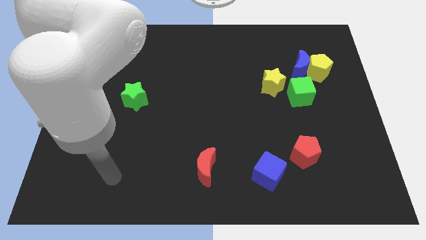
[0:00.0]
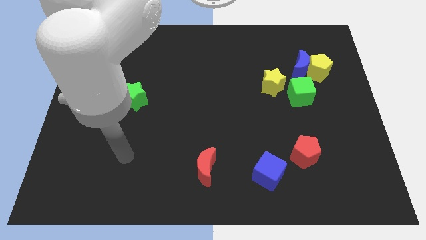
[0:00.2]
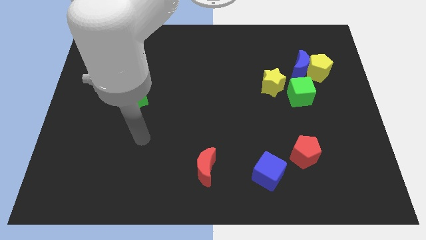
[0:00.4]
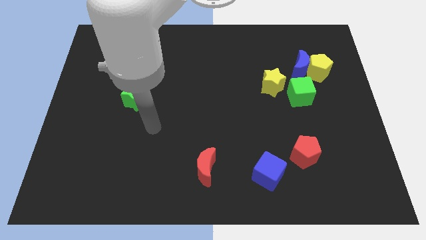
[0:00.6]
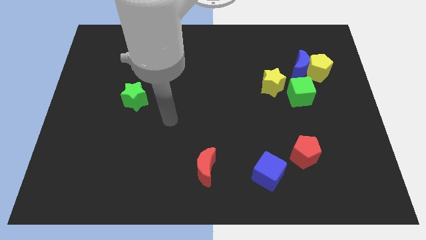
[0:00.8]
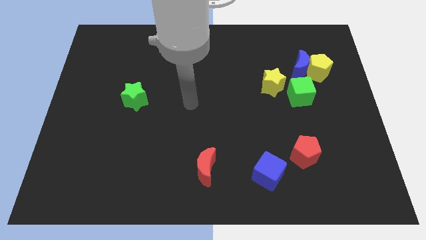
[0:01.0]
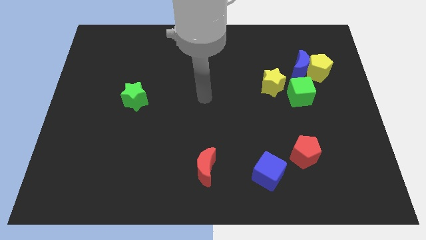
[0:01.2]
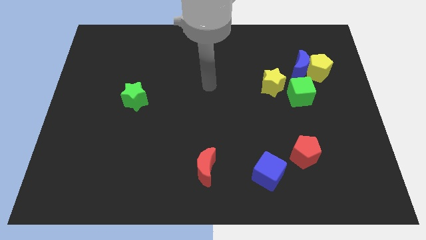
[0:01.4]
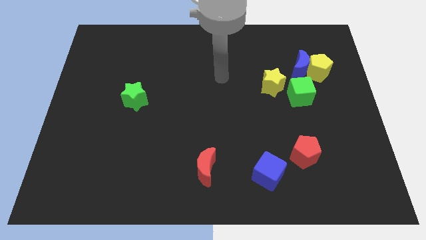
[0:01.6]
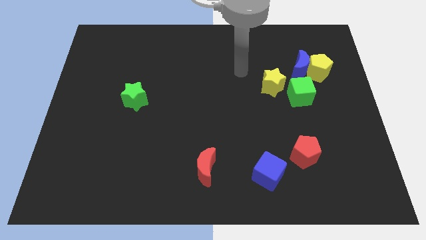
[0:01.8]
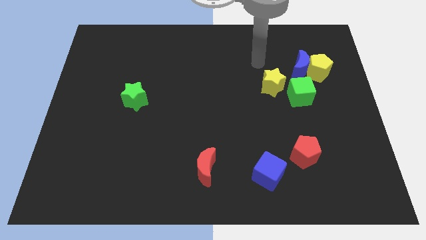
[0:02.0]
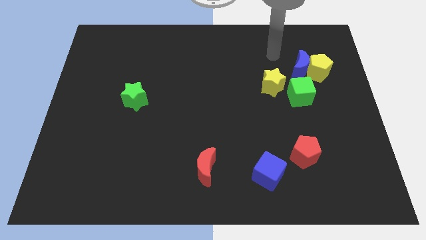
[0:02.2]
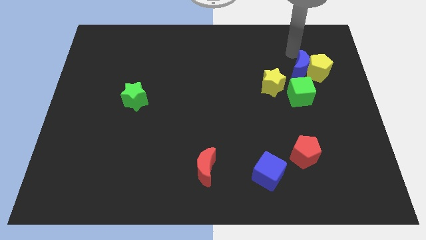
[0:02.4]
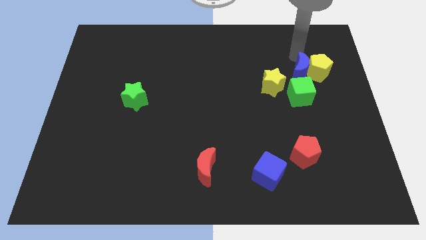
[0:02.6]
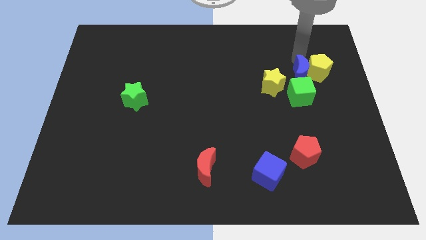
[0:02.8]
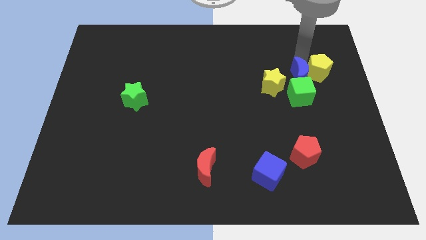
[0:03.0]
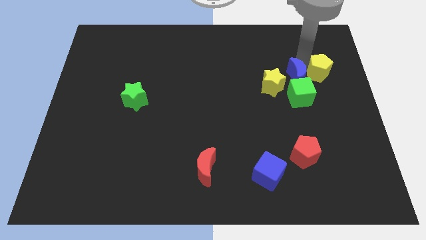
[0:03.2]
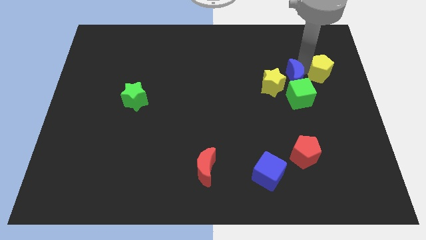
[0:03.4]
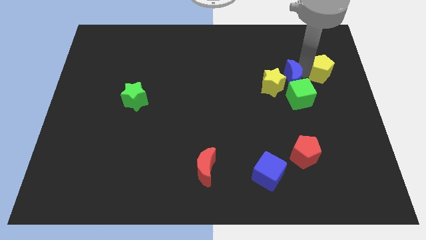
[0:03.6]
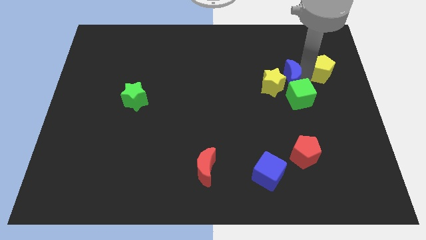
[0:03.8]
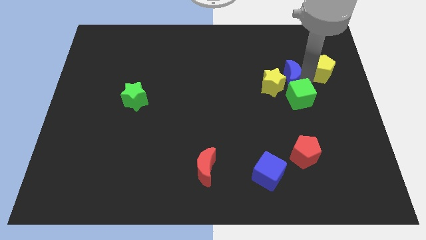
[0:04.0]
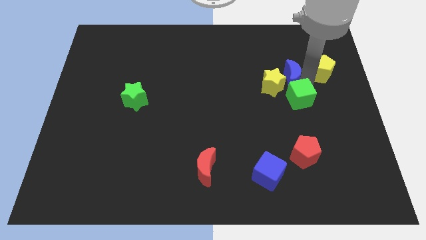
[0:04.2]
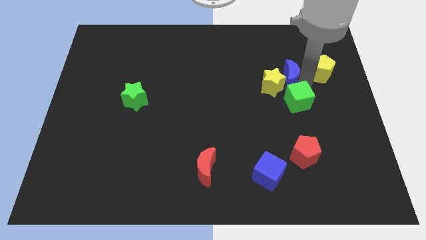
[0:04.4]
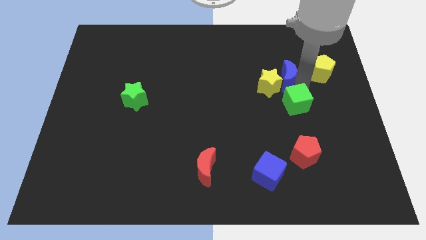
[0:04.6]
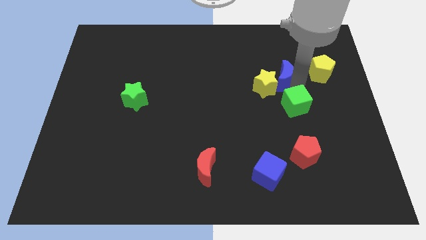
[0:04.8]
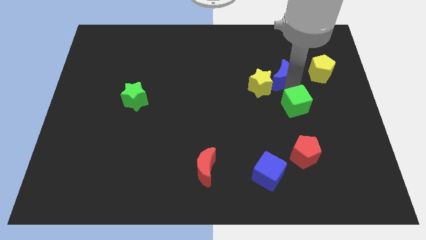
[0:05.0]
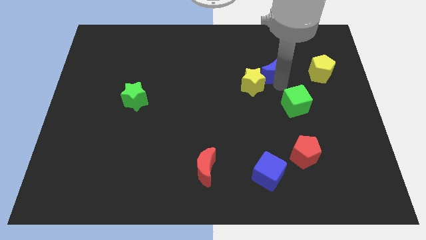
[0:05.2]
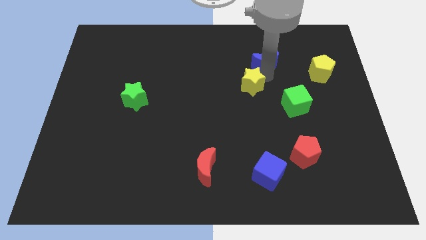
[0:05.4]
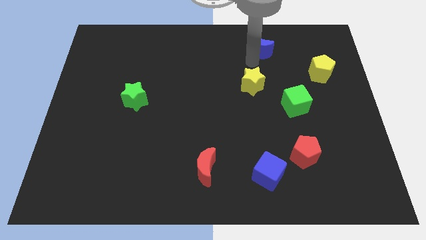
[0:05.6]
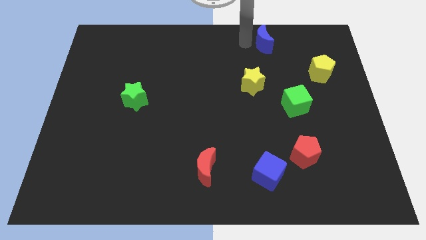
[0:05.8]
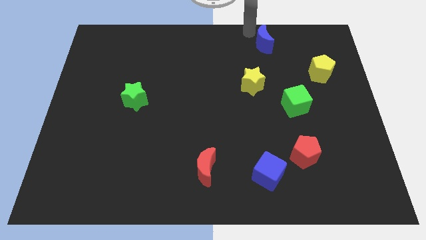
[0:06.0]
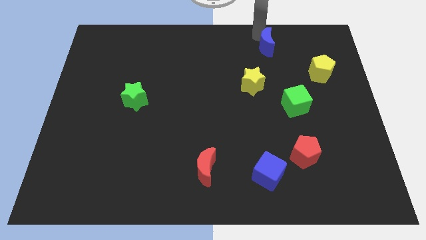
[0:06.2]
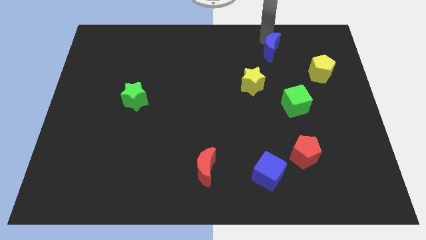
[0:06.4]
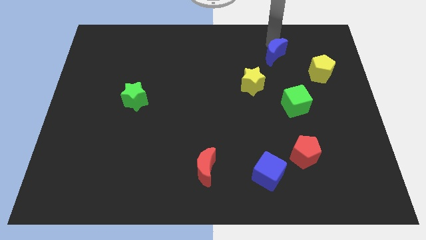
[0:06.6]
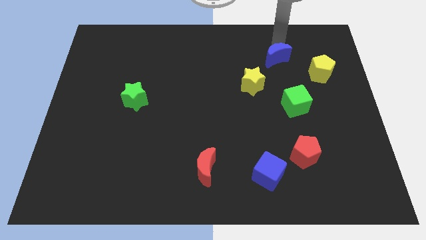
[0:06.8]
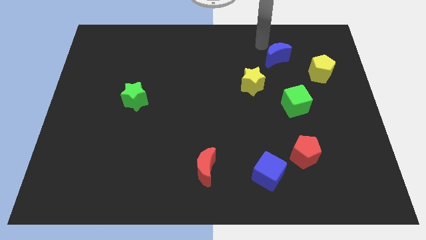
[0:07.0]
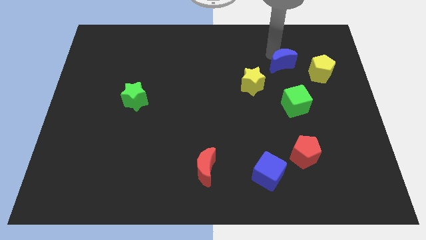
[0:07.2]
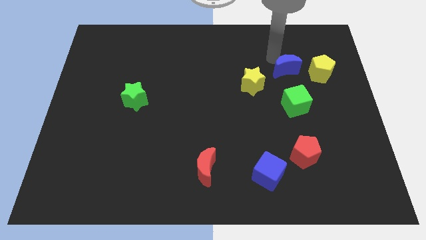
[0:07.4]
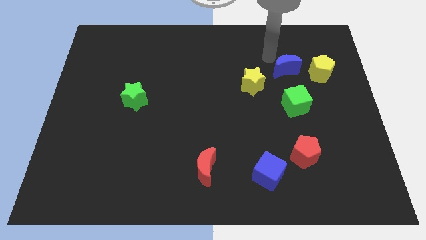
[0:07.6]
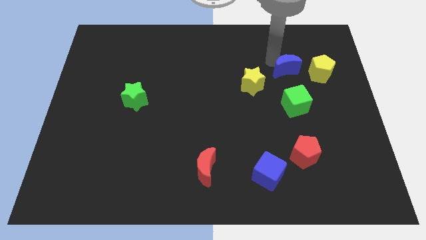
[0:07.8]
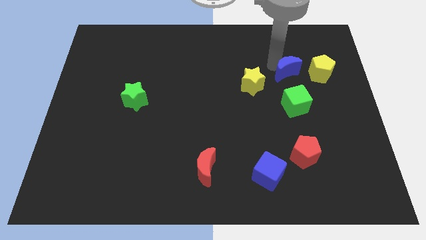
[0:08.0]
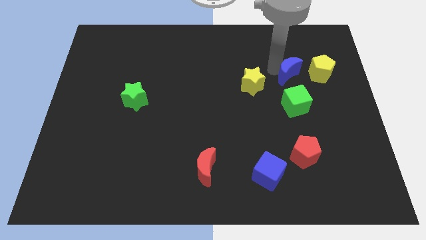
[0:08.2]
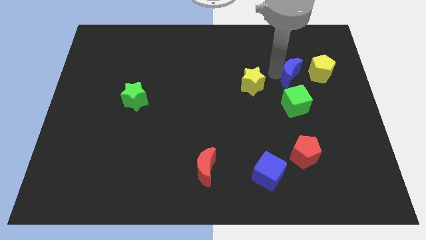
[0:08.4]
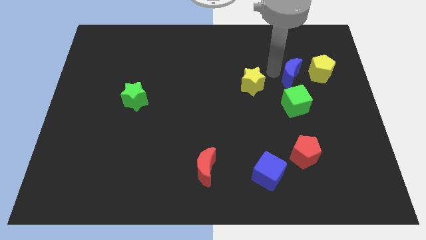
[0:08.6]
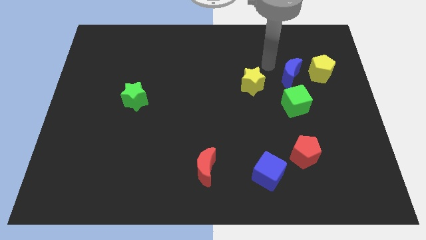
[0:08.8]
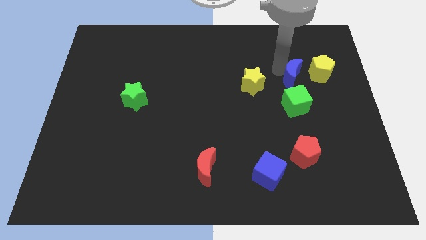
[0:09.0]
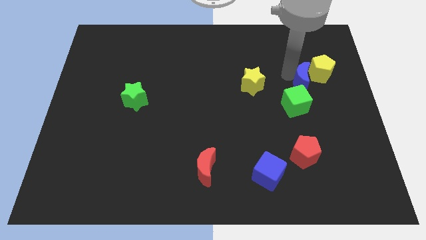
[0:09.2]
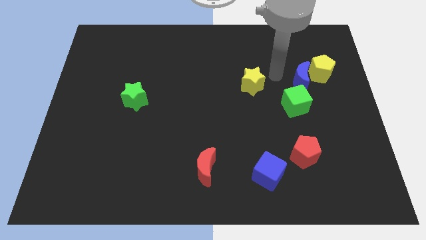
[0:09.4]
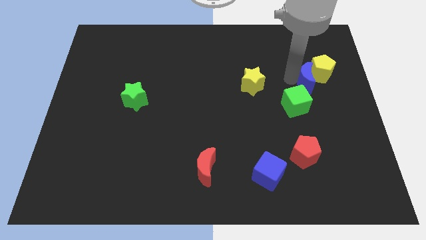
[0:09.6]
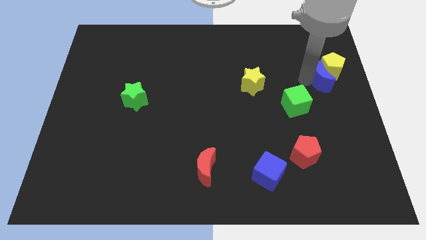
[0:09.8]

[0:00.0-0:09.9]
push the blue moon to the center right

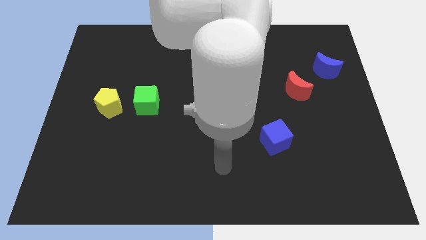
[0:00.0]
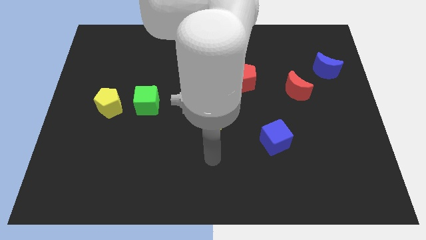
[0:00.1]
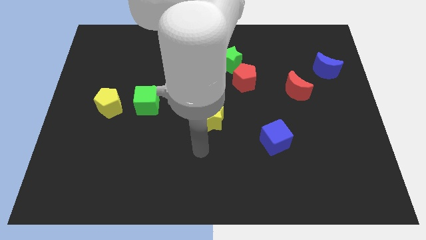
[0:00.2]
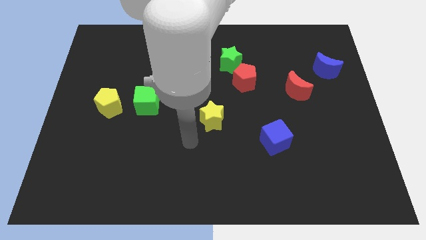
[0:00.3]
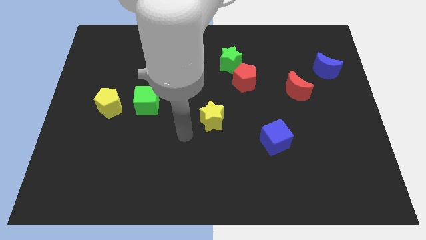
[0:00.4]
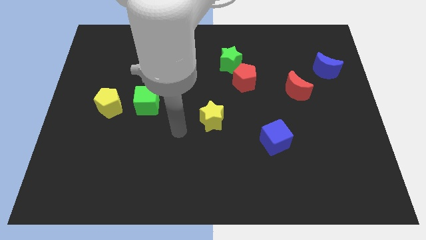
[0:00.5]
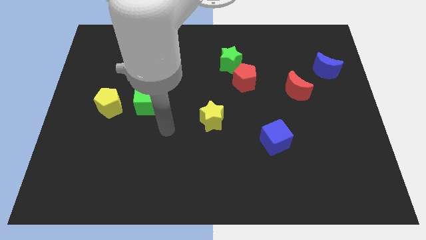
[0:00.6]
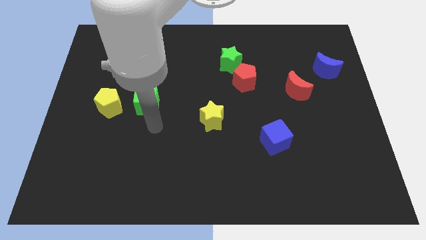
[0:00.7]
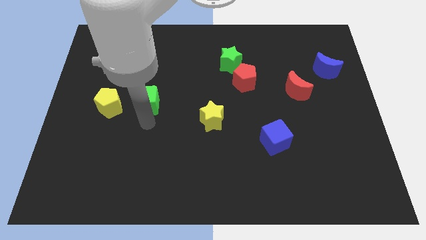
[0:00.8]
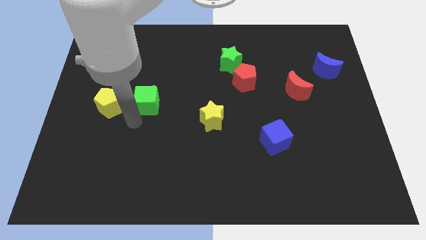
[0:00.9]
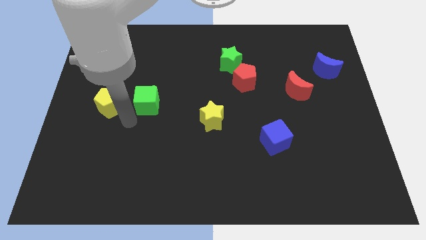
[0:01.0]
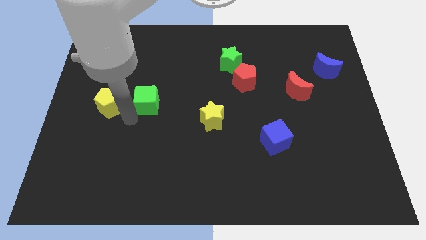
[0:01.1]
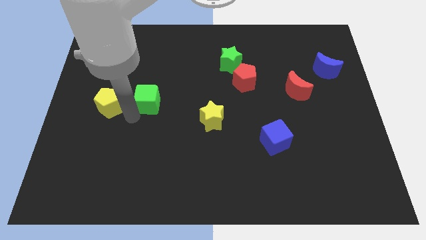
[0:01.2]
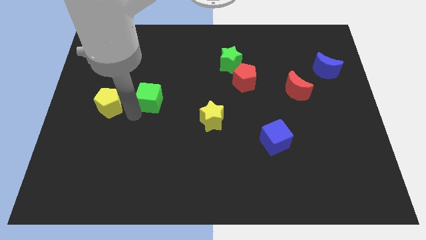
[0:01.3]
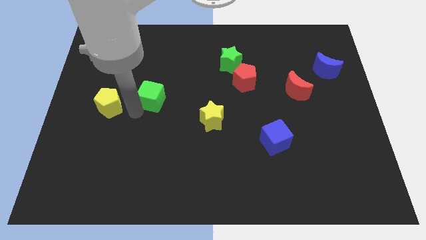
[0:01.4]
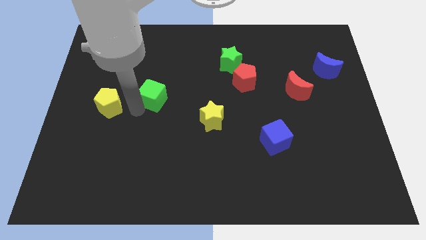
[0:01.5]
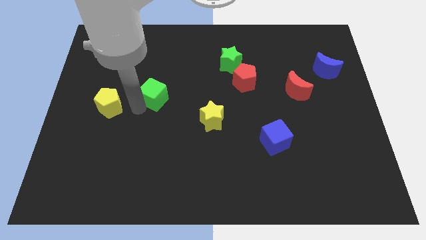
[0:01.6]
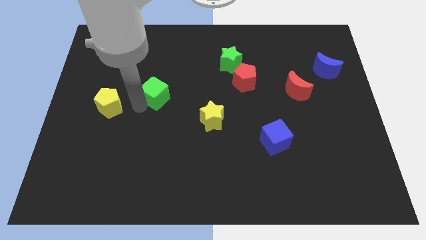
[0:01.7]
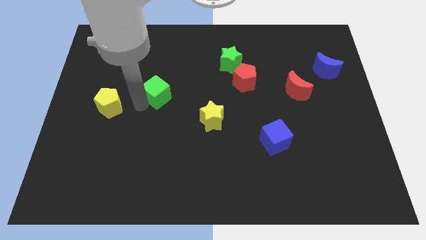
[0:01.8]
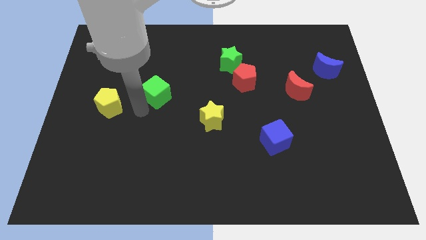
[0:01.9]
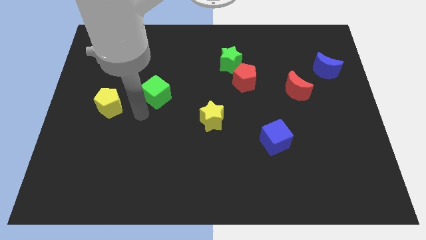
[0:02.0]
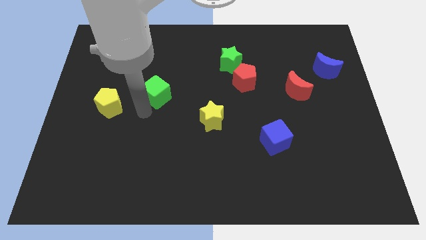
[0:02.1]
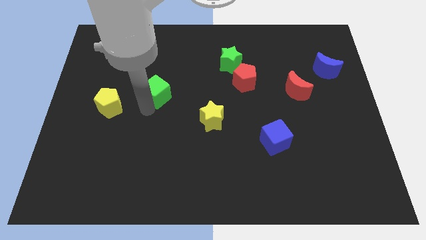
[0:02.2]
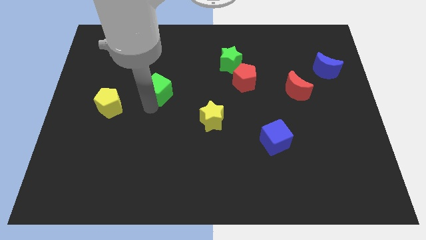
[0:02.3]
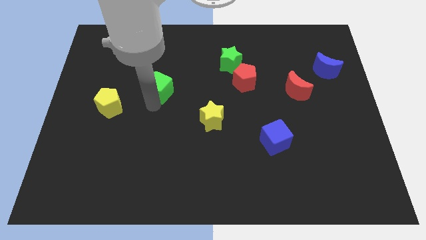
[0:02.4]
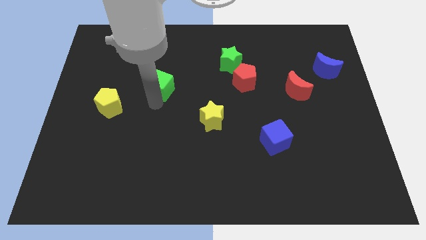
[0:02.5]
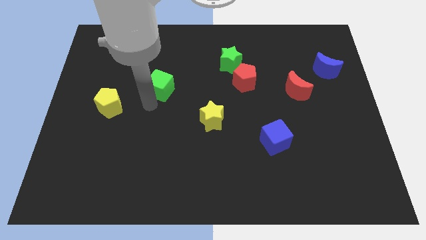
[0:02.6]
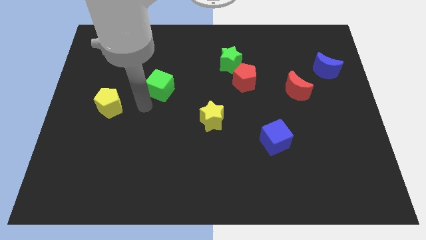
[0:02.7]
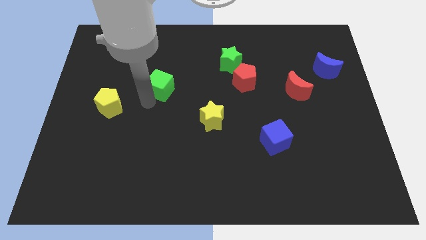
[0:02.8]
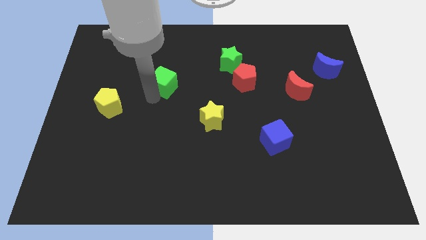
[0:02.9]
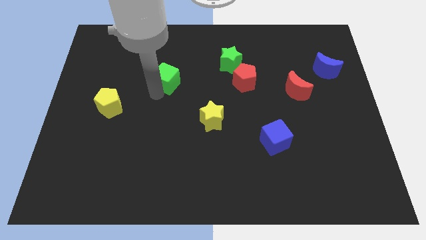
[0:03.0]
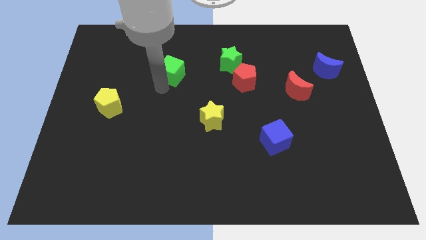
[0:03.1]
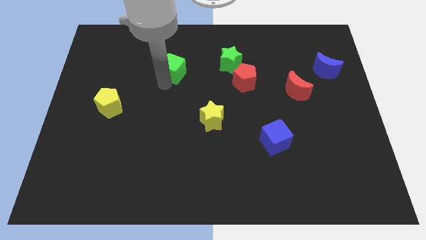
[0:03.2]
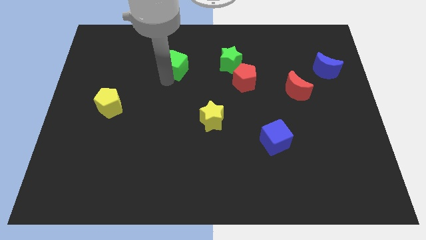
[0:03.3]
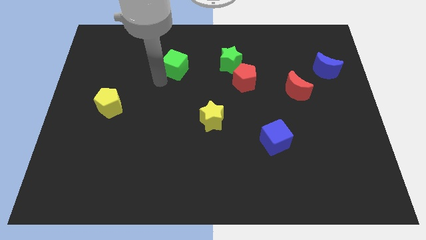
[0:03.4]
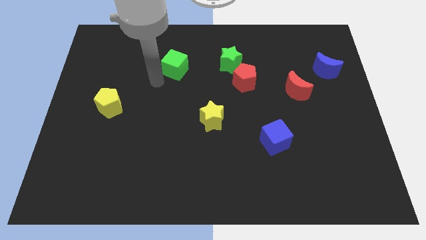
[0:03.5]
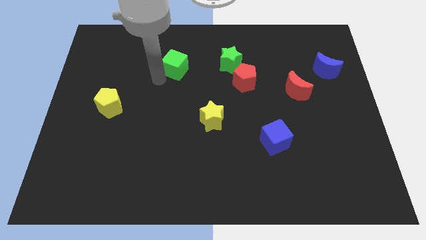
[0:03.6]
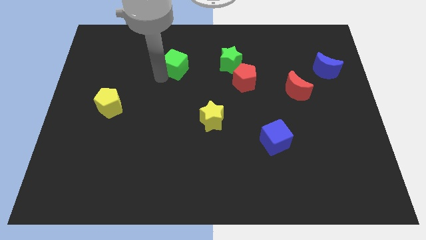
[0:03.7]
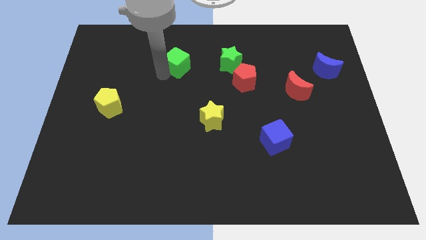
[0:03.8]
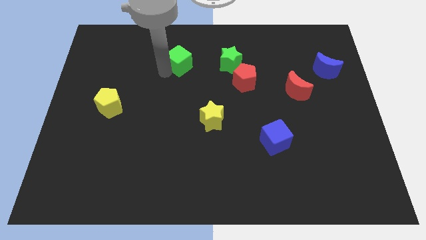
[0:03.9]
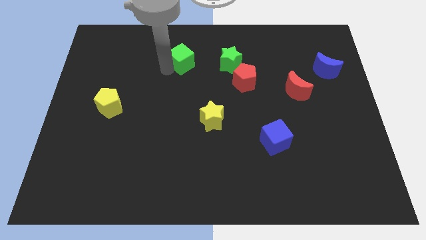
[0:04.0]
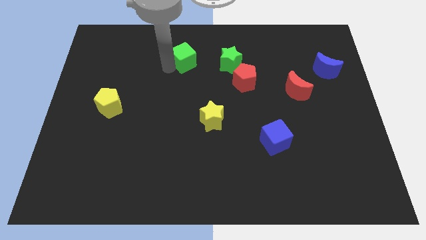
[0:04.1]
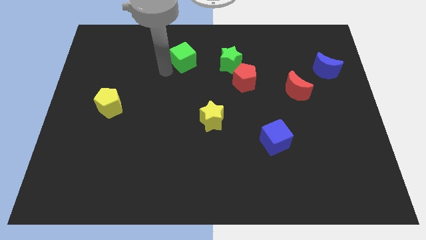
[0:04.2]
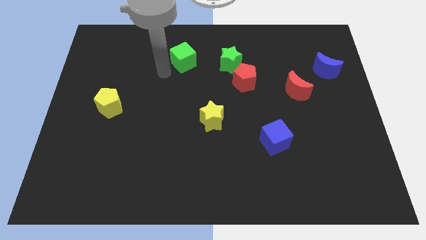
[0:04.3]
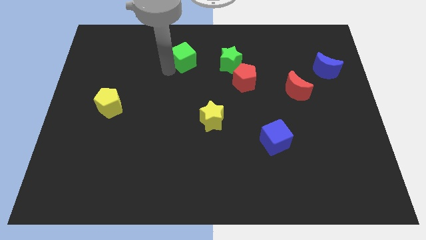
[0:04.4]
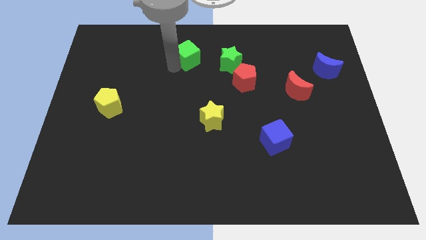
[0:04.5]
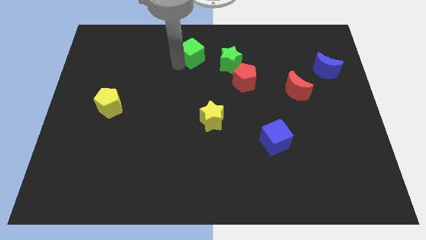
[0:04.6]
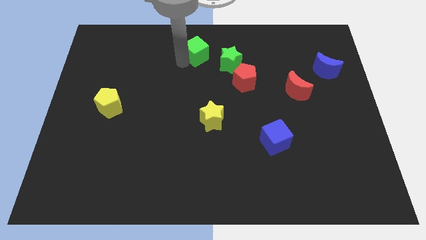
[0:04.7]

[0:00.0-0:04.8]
move the green cube to the top side
